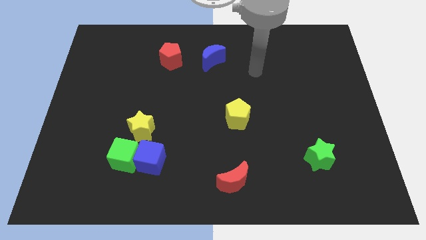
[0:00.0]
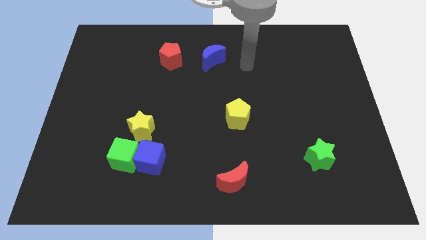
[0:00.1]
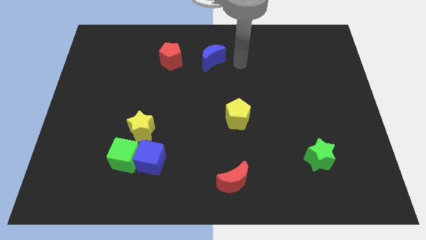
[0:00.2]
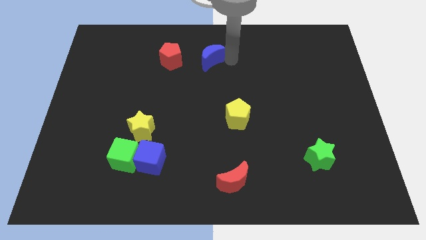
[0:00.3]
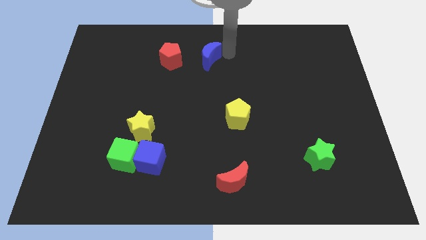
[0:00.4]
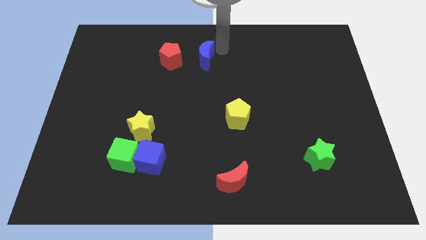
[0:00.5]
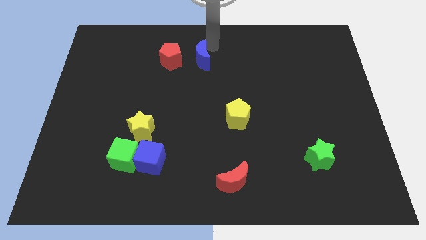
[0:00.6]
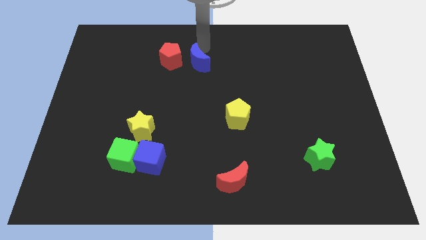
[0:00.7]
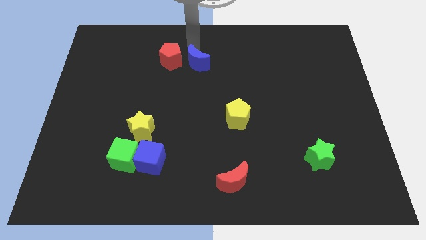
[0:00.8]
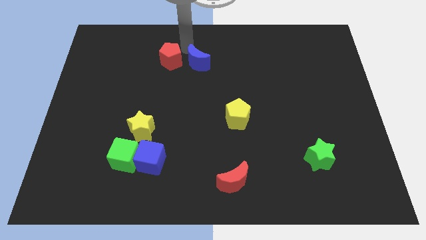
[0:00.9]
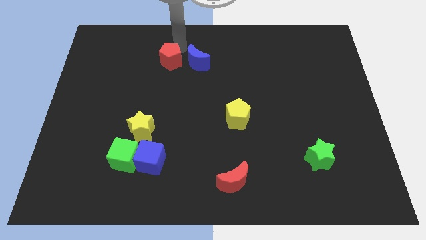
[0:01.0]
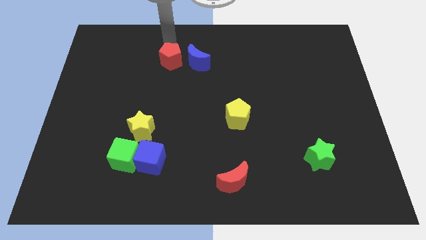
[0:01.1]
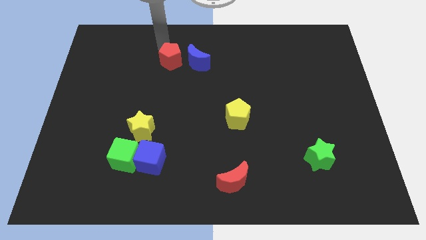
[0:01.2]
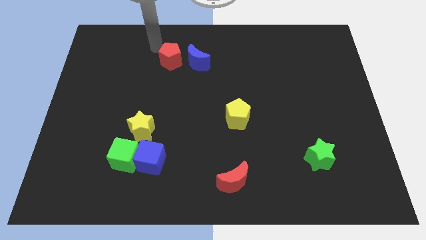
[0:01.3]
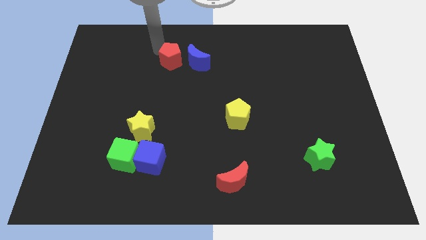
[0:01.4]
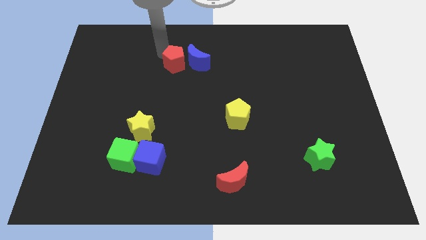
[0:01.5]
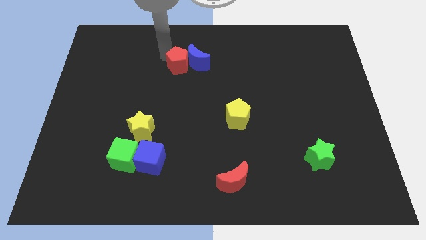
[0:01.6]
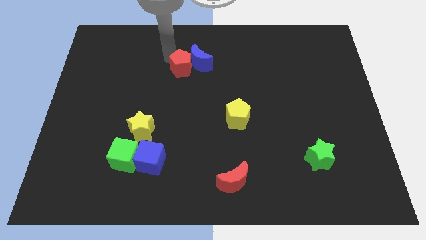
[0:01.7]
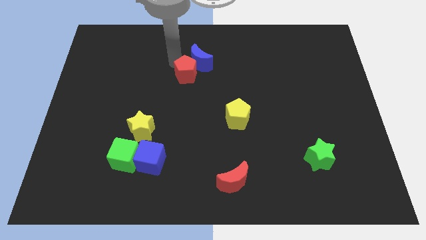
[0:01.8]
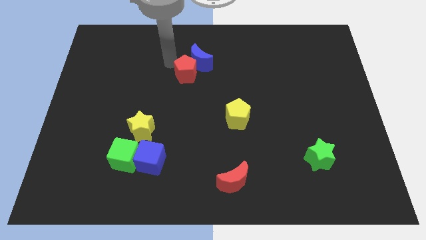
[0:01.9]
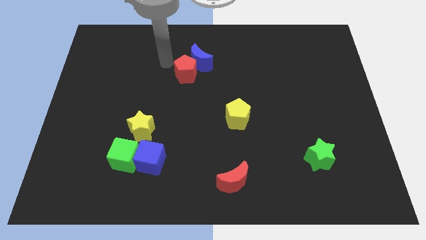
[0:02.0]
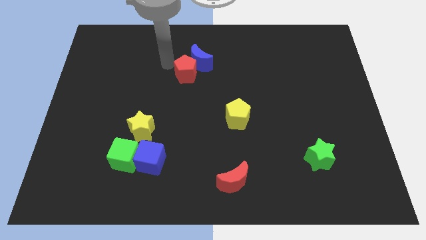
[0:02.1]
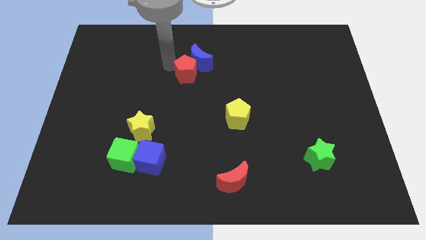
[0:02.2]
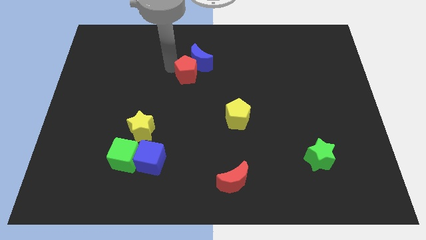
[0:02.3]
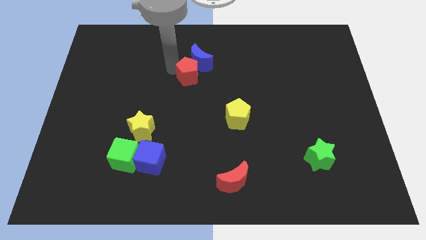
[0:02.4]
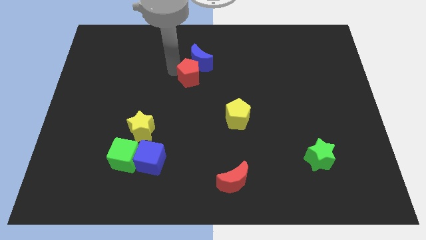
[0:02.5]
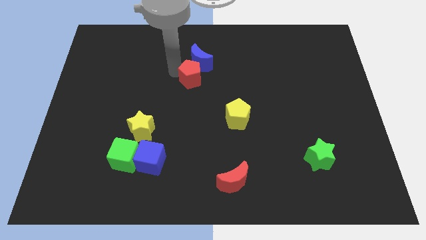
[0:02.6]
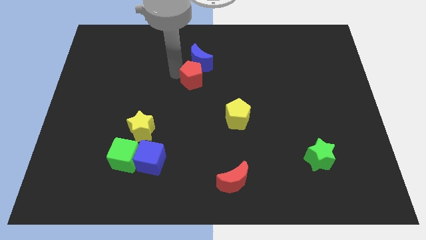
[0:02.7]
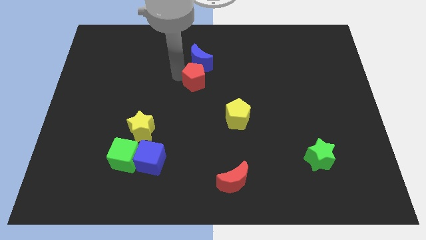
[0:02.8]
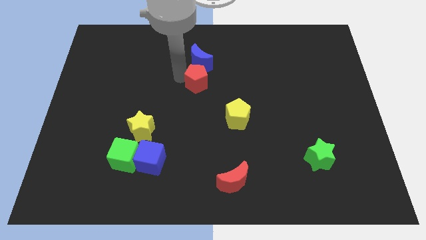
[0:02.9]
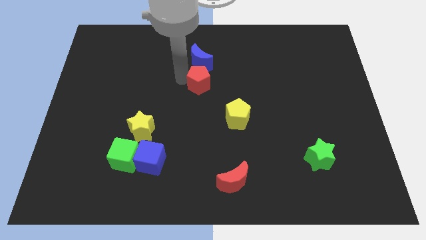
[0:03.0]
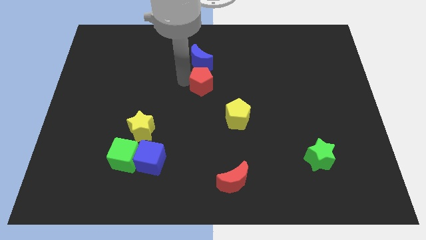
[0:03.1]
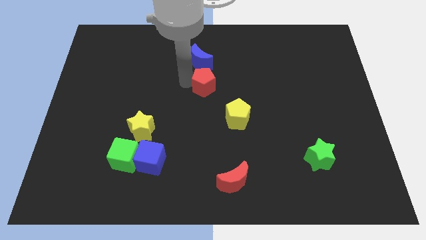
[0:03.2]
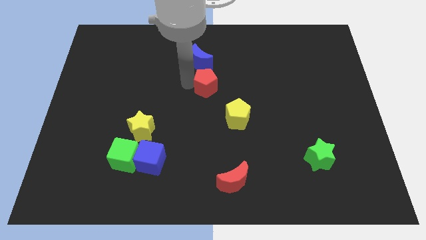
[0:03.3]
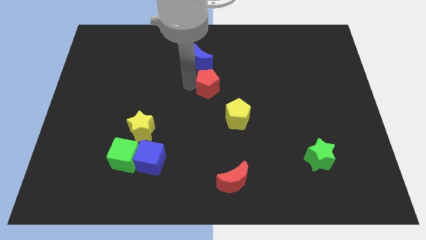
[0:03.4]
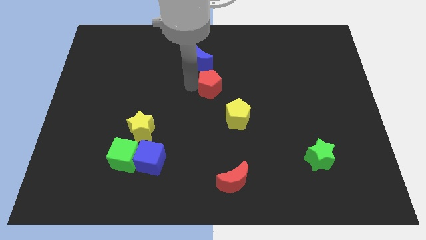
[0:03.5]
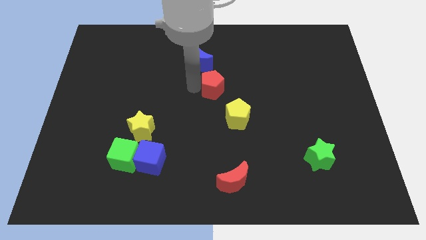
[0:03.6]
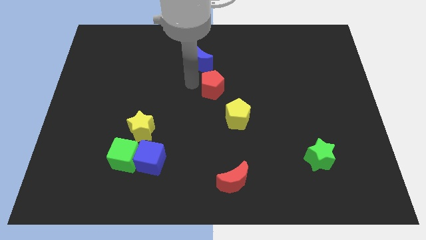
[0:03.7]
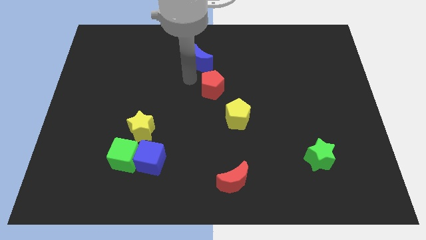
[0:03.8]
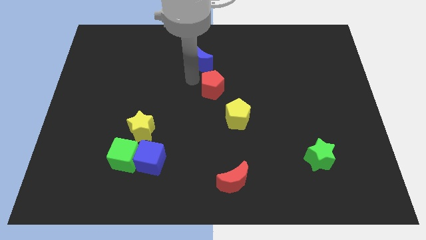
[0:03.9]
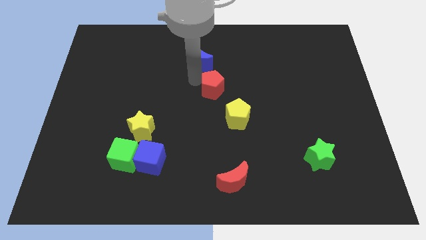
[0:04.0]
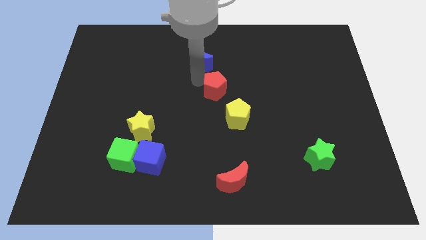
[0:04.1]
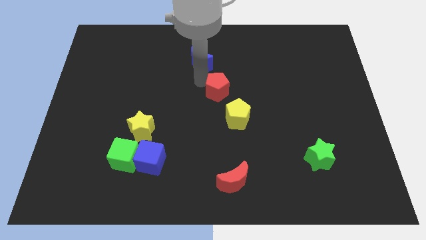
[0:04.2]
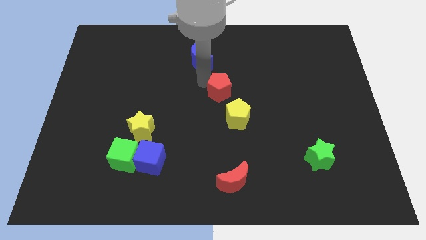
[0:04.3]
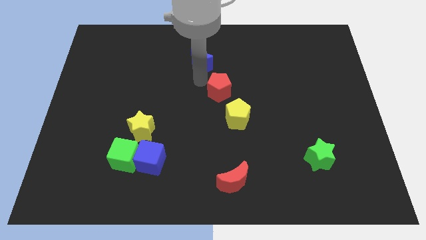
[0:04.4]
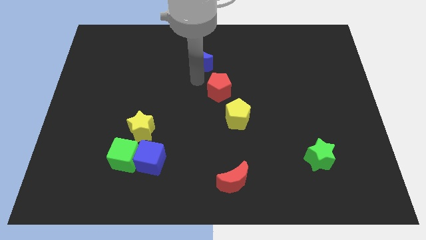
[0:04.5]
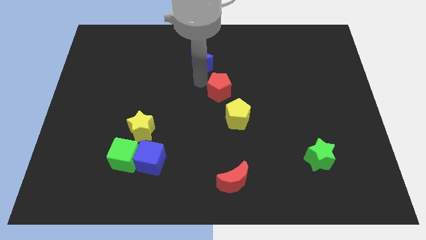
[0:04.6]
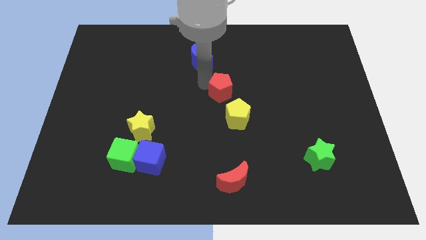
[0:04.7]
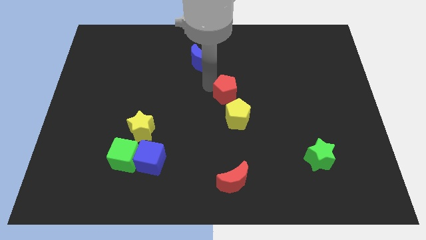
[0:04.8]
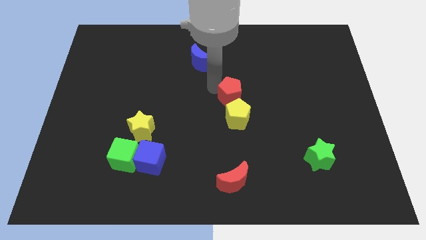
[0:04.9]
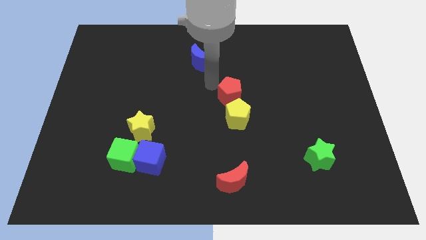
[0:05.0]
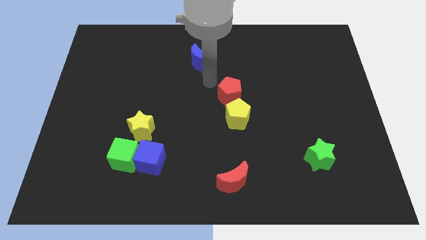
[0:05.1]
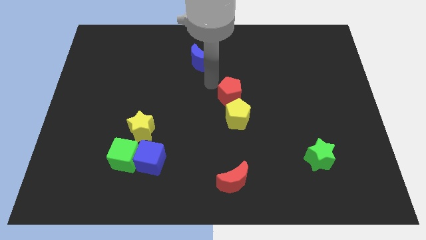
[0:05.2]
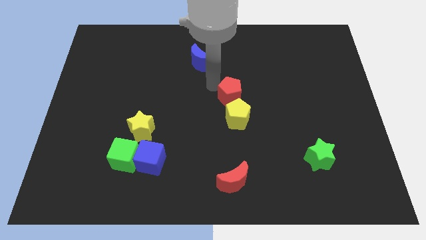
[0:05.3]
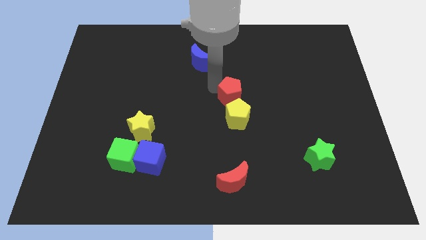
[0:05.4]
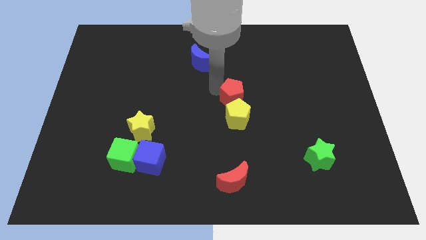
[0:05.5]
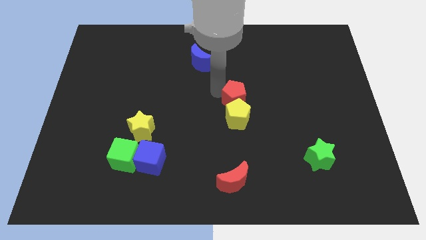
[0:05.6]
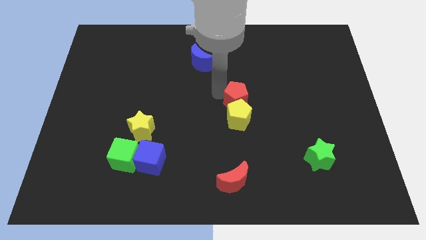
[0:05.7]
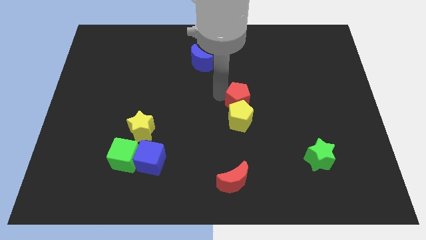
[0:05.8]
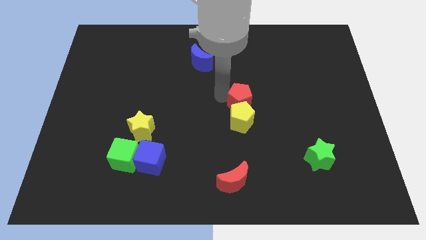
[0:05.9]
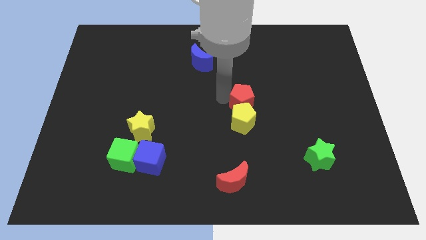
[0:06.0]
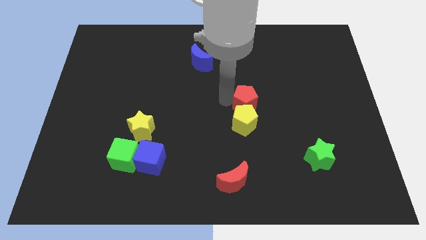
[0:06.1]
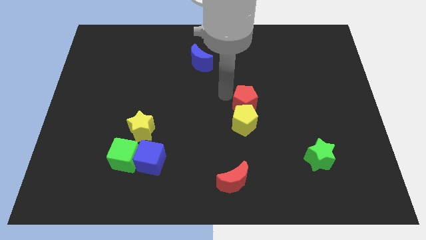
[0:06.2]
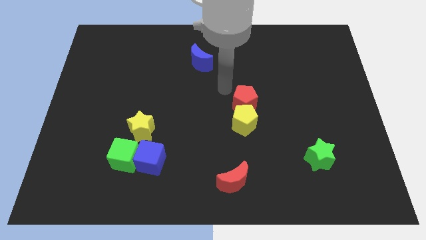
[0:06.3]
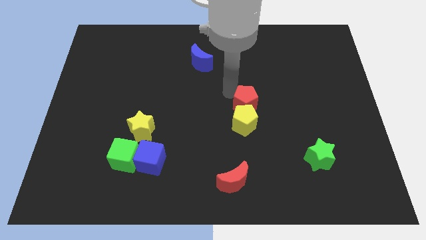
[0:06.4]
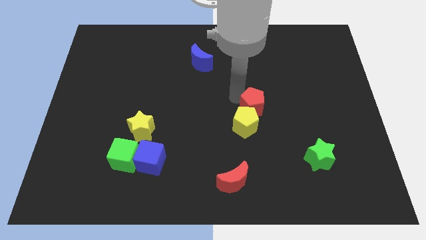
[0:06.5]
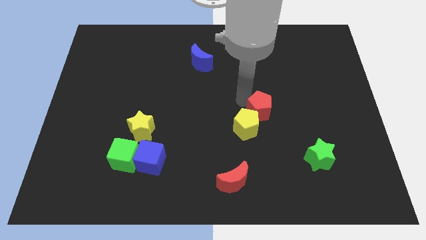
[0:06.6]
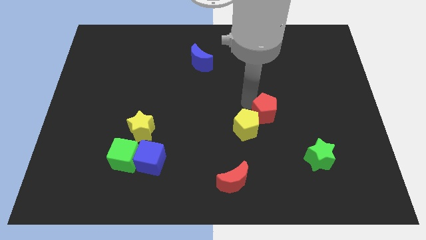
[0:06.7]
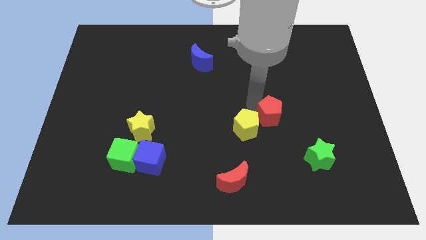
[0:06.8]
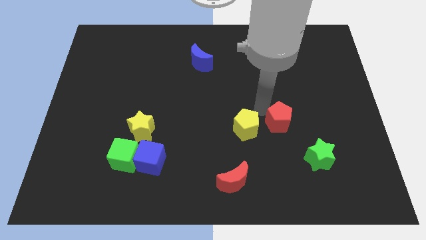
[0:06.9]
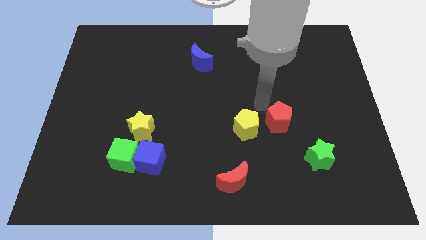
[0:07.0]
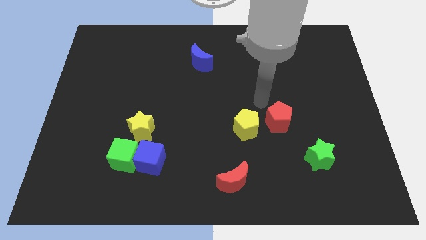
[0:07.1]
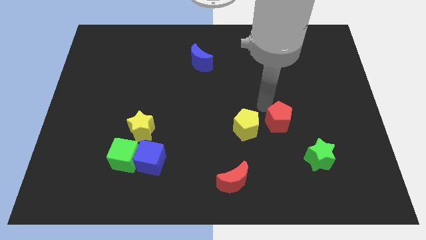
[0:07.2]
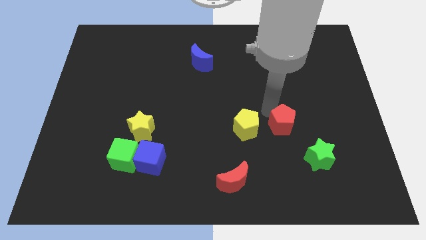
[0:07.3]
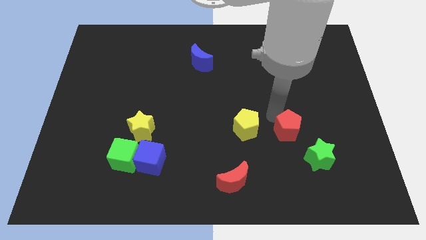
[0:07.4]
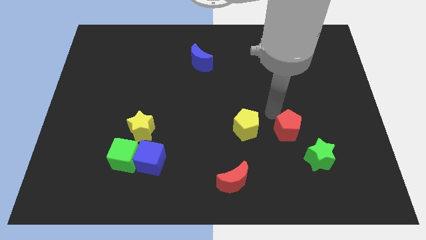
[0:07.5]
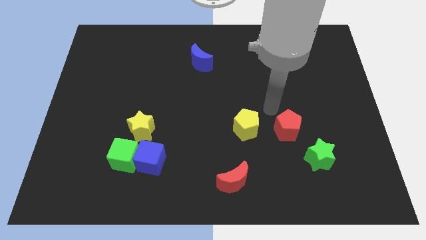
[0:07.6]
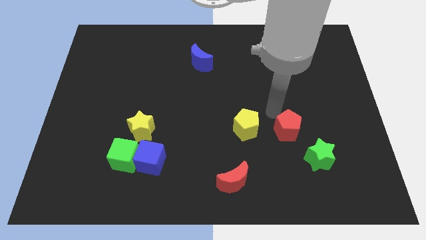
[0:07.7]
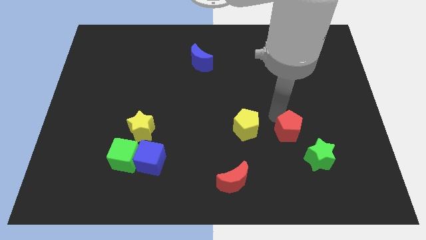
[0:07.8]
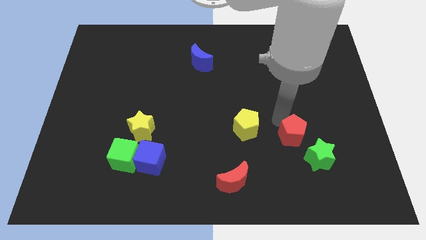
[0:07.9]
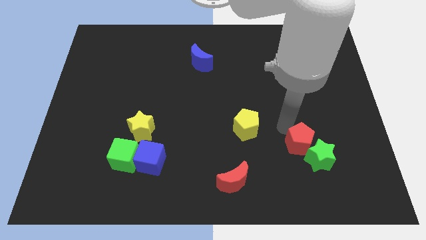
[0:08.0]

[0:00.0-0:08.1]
push the red pentagon close to the green star
